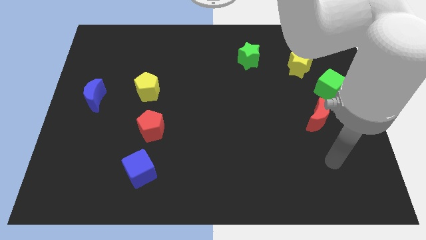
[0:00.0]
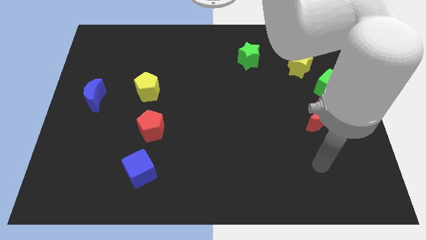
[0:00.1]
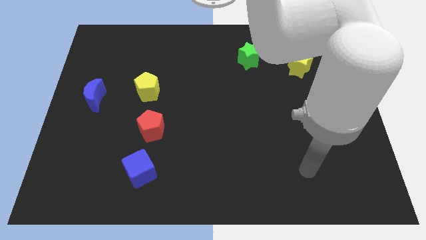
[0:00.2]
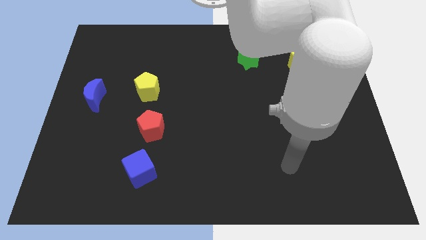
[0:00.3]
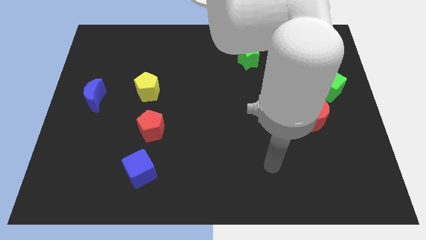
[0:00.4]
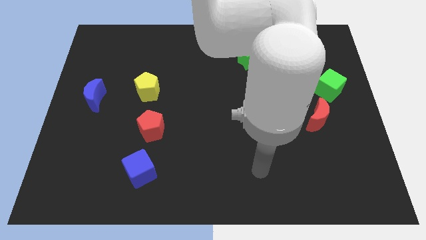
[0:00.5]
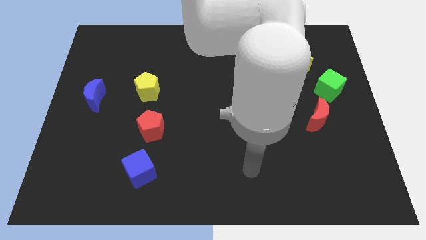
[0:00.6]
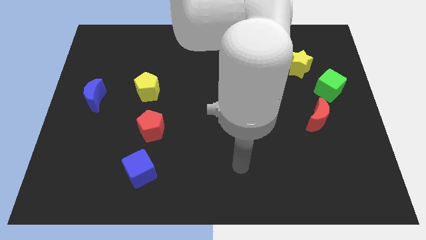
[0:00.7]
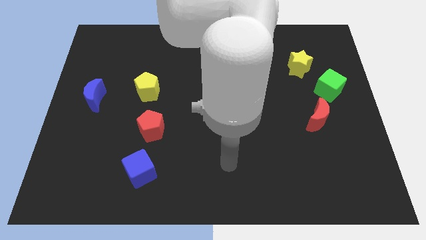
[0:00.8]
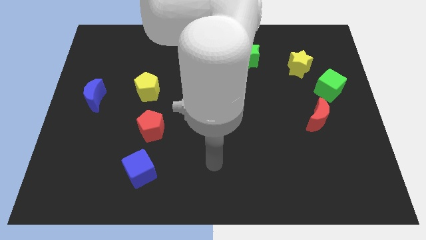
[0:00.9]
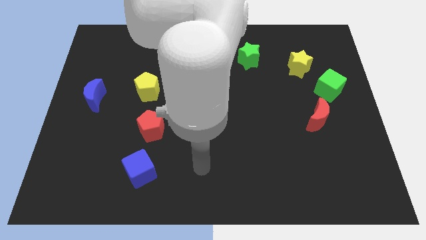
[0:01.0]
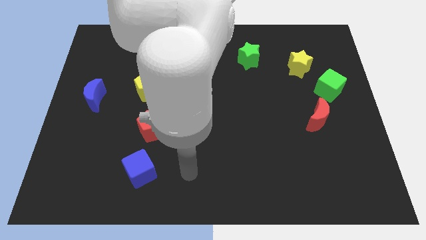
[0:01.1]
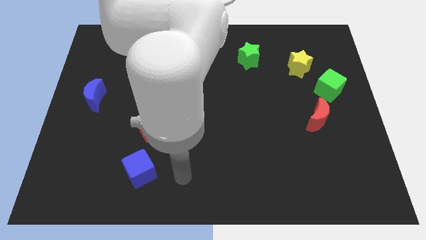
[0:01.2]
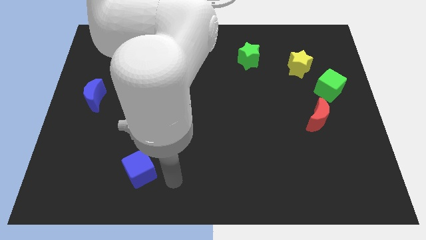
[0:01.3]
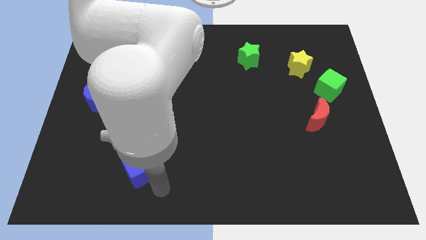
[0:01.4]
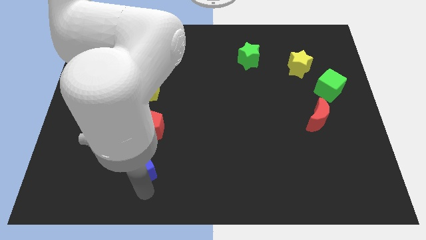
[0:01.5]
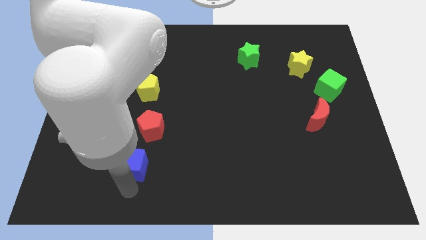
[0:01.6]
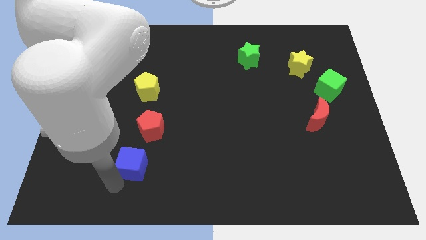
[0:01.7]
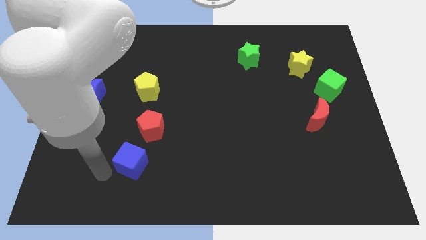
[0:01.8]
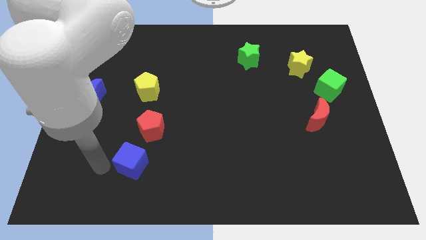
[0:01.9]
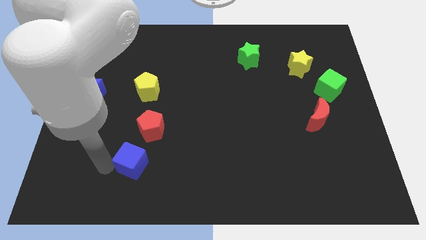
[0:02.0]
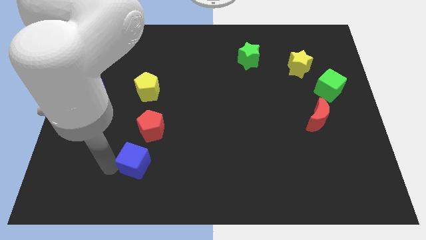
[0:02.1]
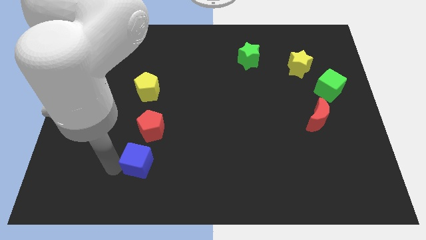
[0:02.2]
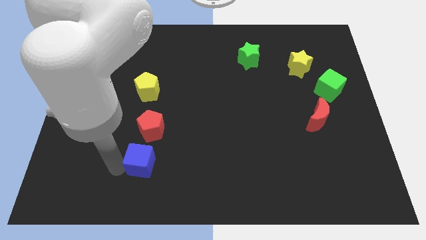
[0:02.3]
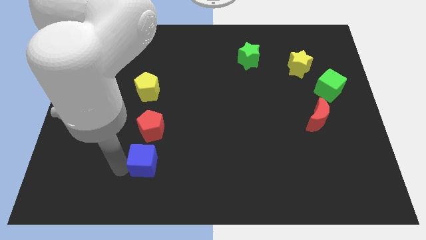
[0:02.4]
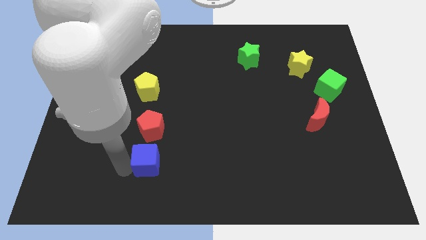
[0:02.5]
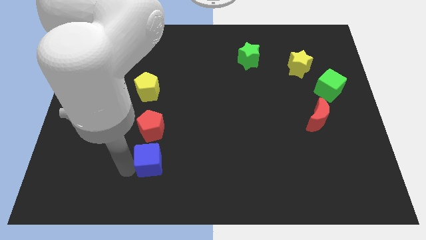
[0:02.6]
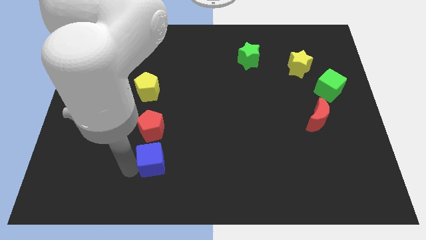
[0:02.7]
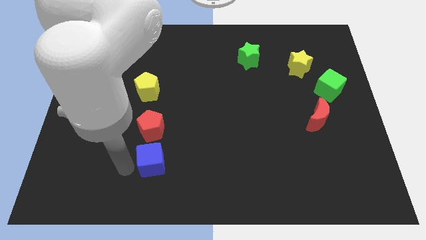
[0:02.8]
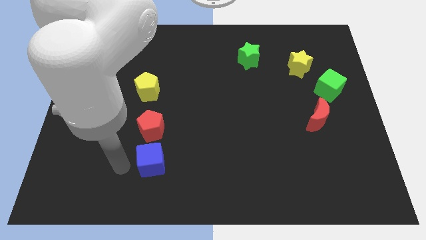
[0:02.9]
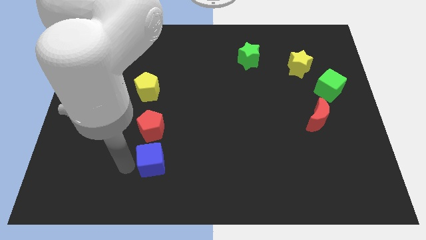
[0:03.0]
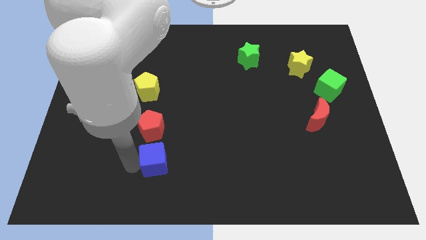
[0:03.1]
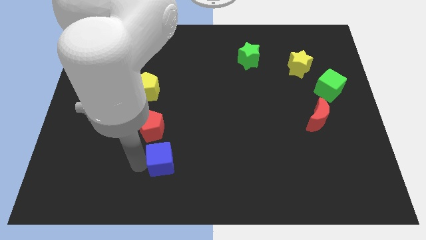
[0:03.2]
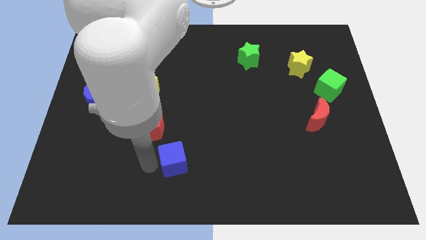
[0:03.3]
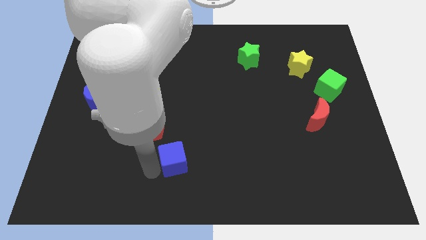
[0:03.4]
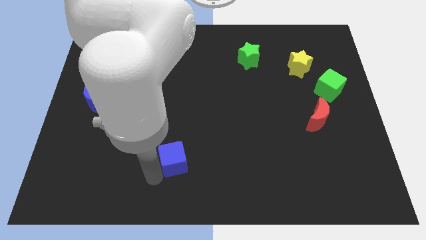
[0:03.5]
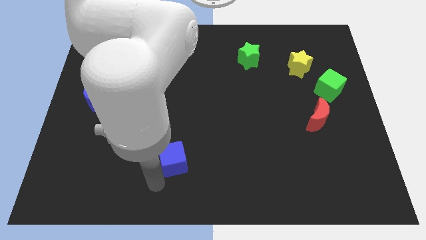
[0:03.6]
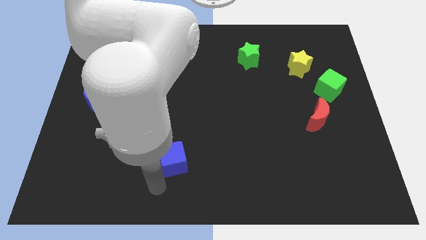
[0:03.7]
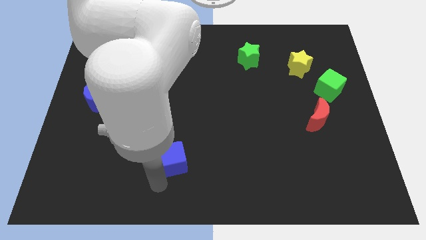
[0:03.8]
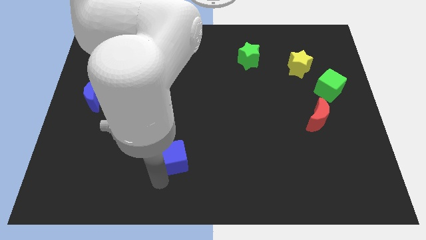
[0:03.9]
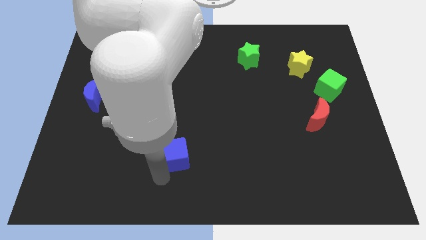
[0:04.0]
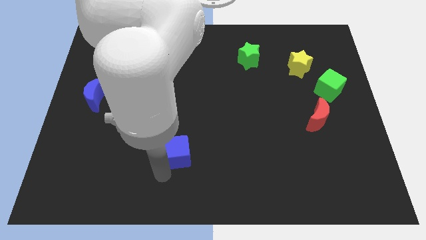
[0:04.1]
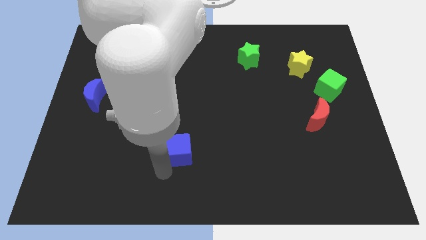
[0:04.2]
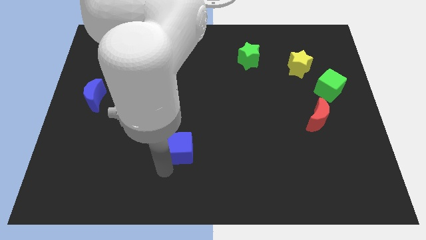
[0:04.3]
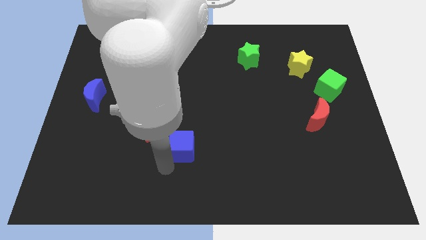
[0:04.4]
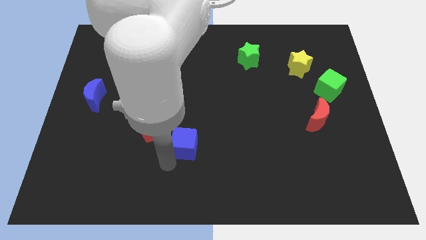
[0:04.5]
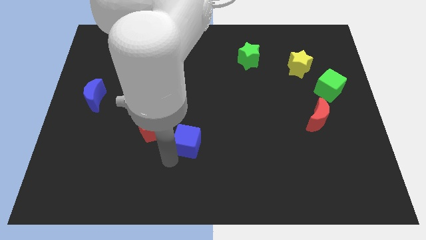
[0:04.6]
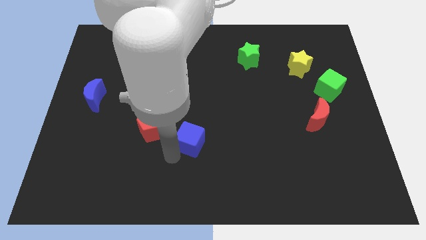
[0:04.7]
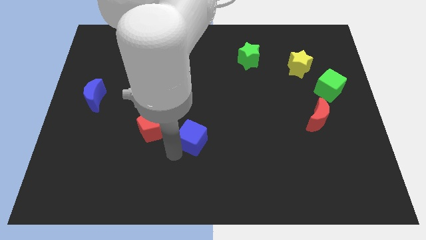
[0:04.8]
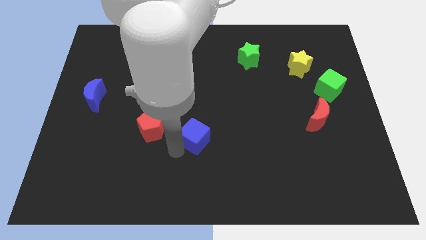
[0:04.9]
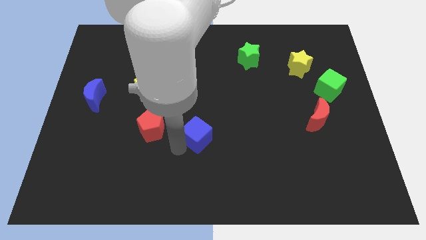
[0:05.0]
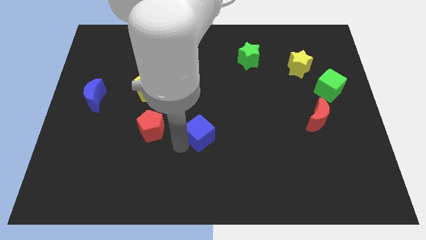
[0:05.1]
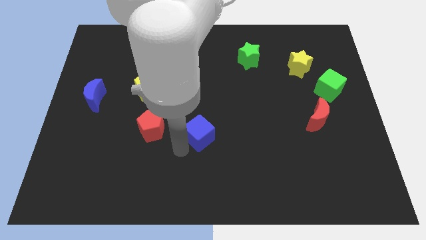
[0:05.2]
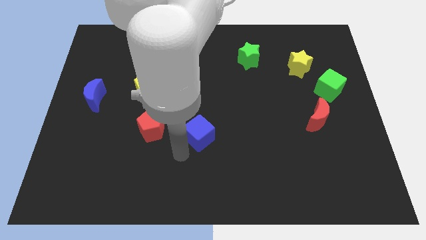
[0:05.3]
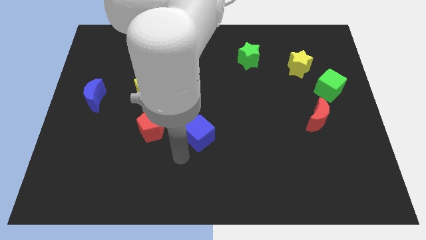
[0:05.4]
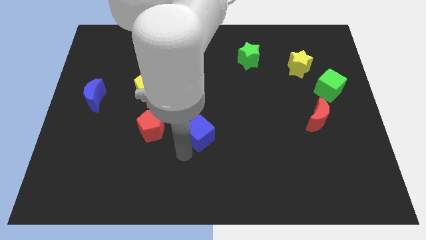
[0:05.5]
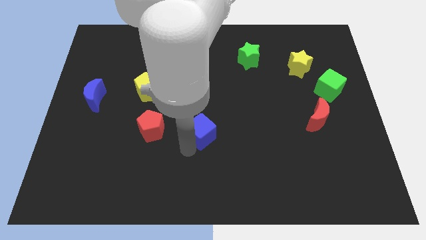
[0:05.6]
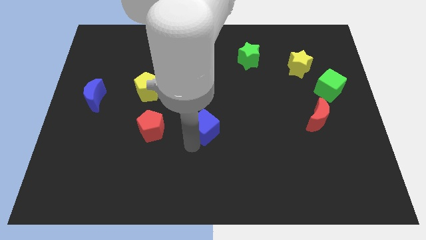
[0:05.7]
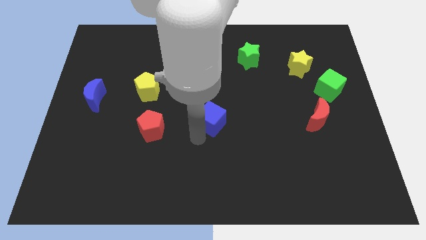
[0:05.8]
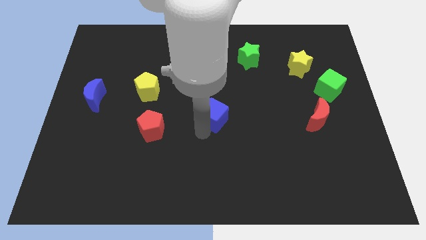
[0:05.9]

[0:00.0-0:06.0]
move the blue cube up and to the right

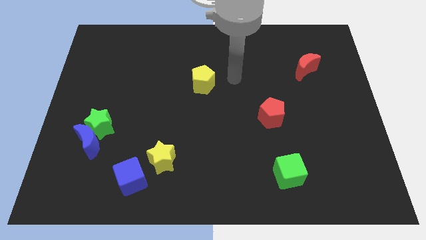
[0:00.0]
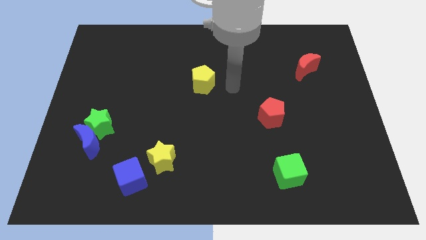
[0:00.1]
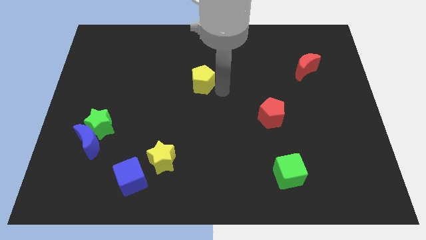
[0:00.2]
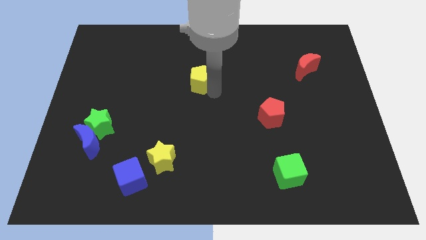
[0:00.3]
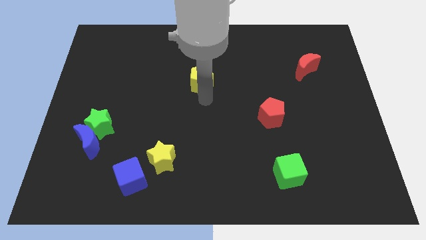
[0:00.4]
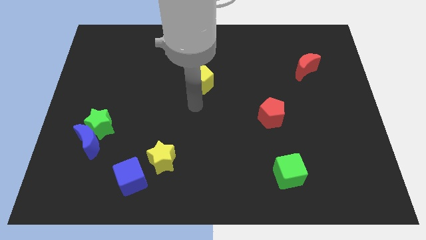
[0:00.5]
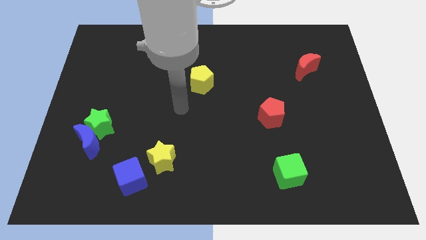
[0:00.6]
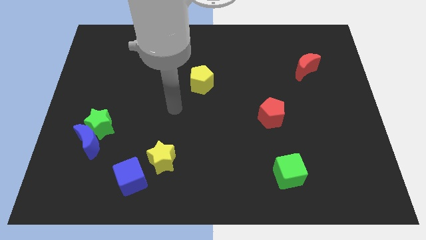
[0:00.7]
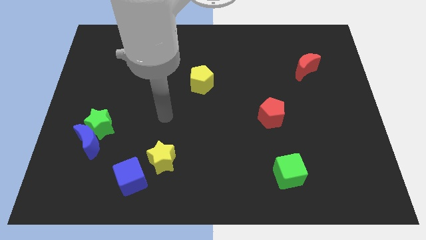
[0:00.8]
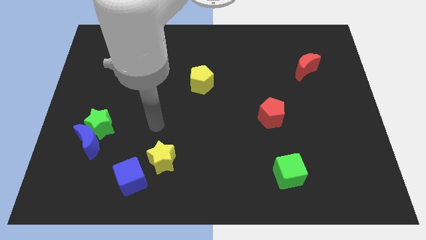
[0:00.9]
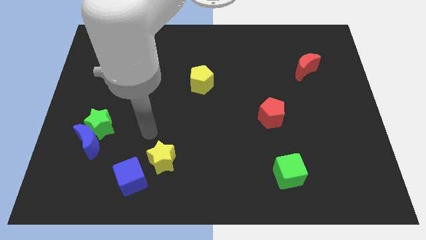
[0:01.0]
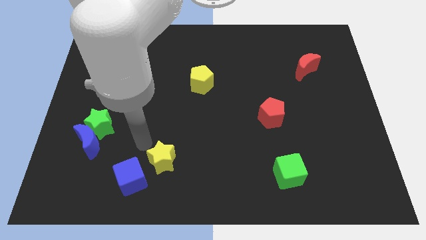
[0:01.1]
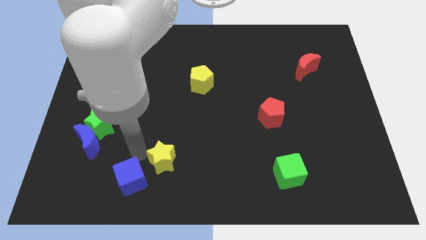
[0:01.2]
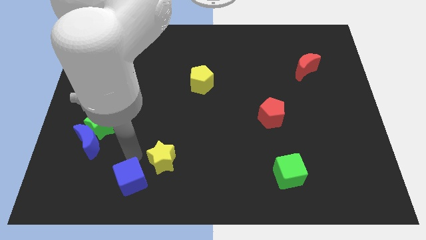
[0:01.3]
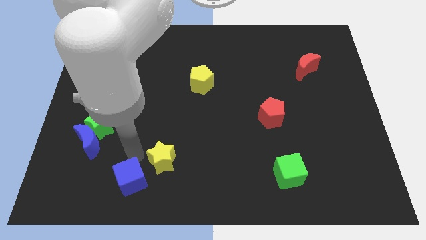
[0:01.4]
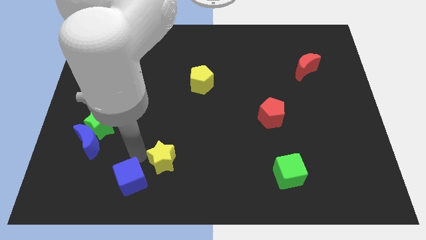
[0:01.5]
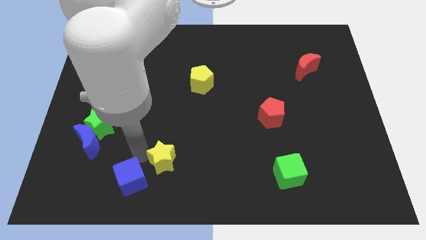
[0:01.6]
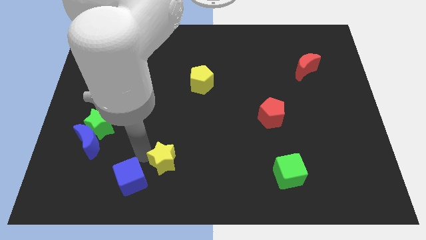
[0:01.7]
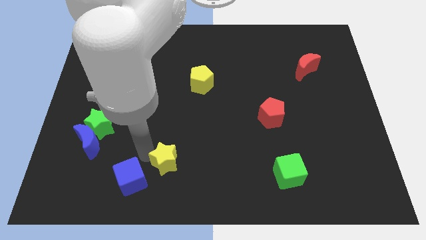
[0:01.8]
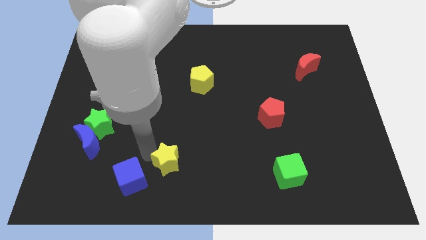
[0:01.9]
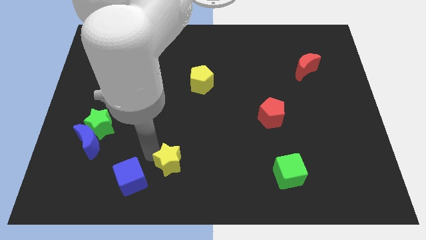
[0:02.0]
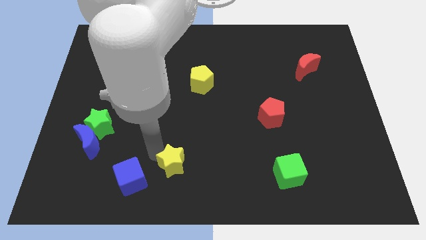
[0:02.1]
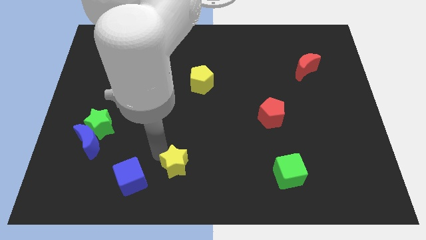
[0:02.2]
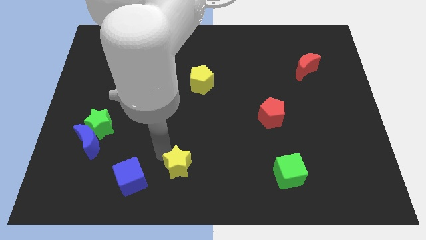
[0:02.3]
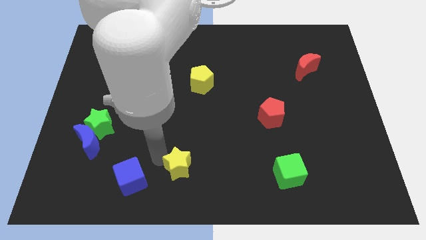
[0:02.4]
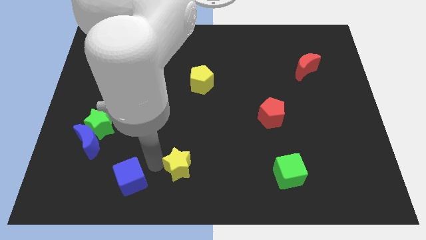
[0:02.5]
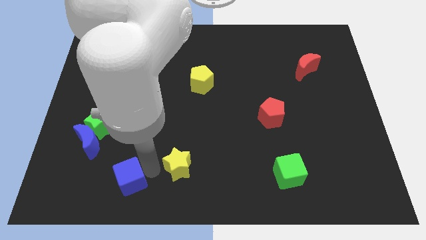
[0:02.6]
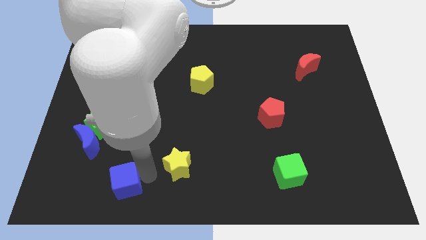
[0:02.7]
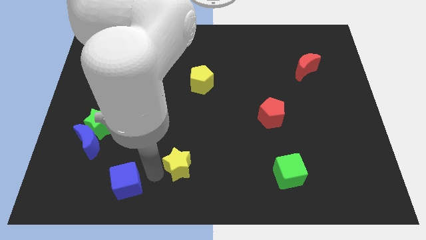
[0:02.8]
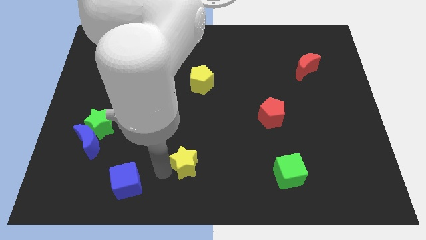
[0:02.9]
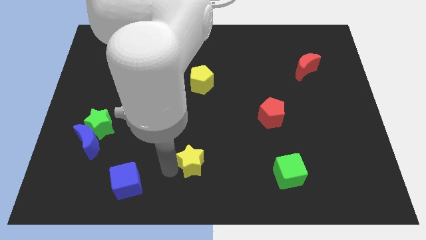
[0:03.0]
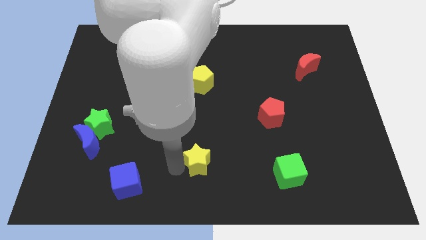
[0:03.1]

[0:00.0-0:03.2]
slightly push the yellow star to the right
